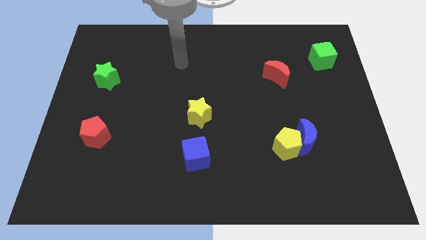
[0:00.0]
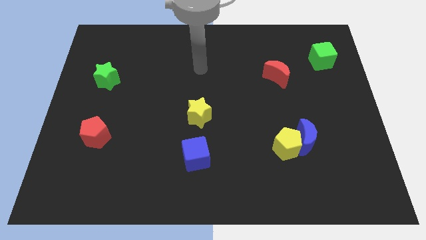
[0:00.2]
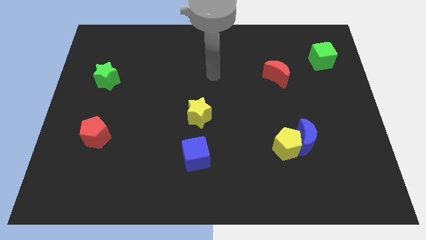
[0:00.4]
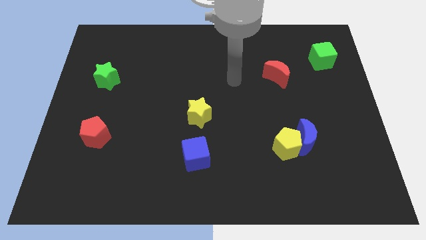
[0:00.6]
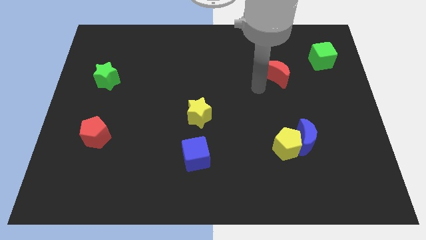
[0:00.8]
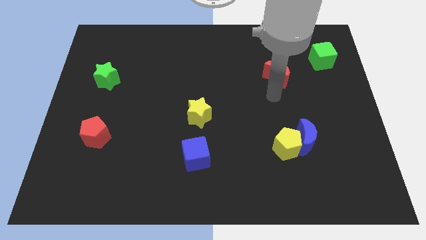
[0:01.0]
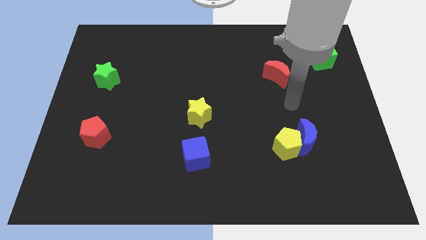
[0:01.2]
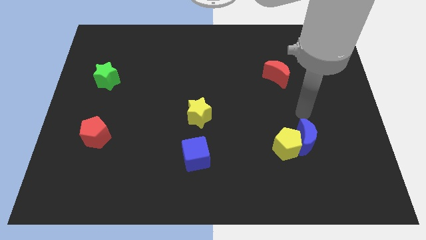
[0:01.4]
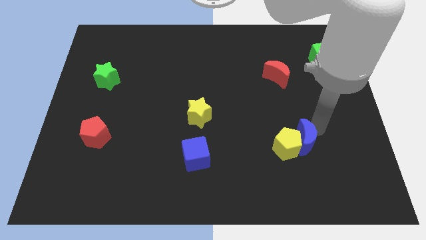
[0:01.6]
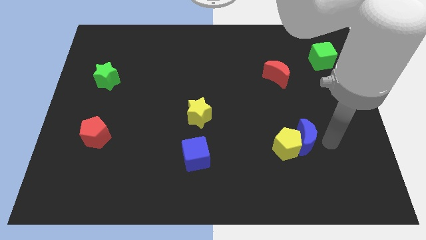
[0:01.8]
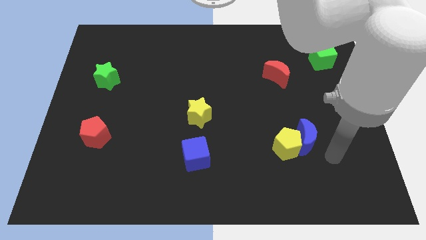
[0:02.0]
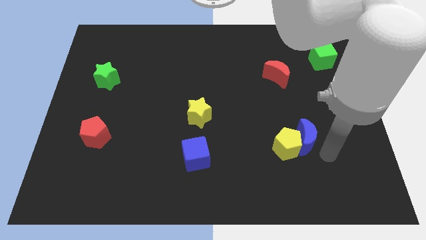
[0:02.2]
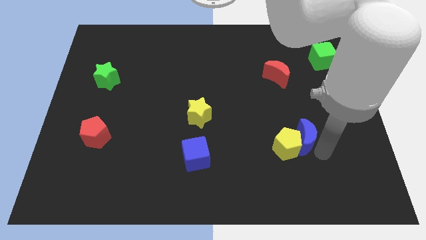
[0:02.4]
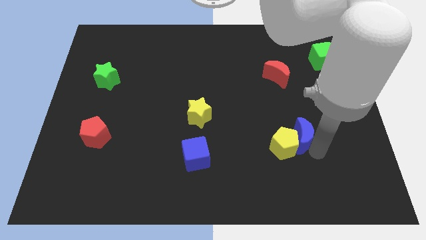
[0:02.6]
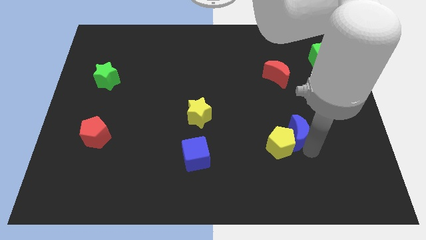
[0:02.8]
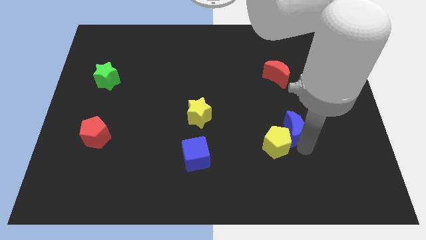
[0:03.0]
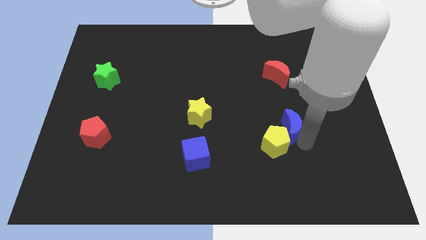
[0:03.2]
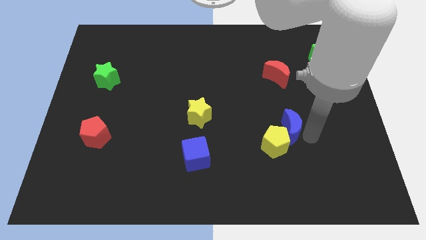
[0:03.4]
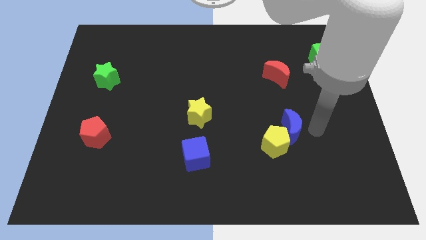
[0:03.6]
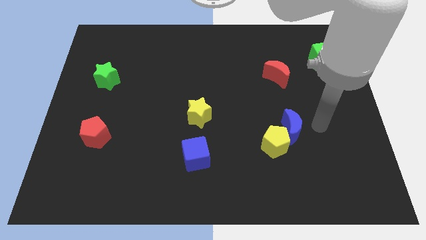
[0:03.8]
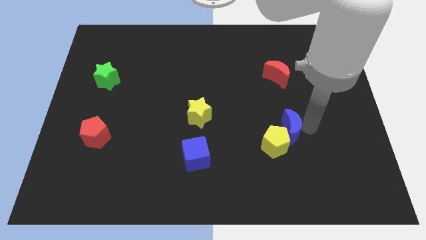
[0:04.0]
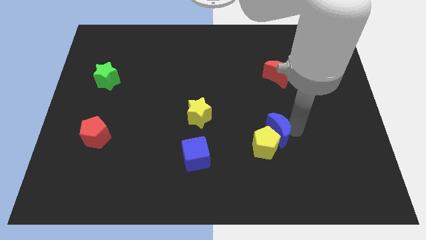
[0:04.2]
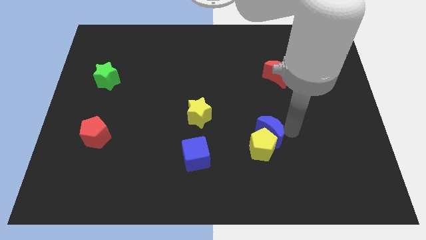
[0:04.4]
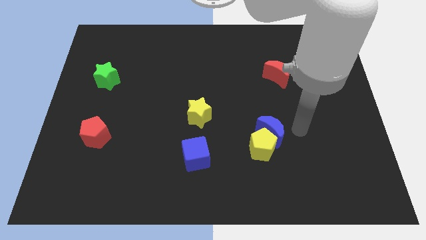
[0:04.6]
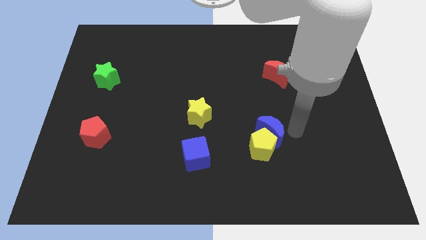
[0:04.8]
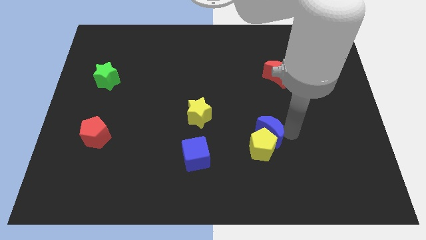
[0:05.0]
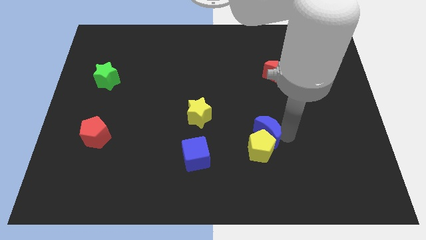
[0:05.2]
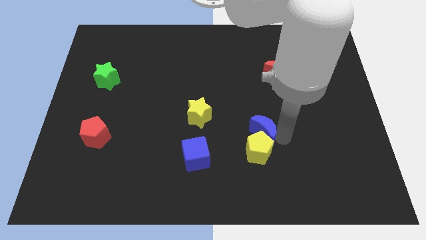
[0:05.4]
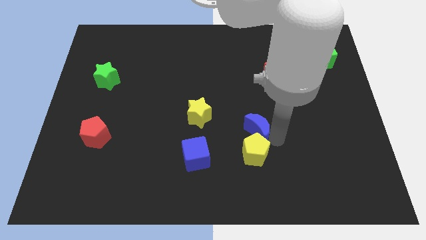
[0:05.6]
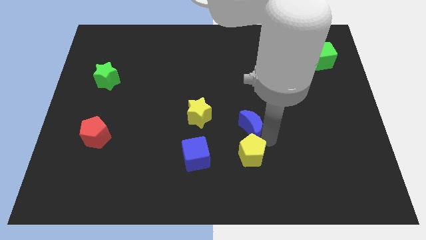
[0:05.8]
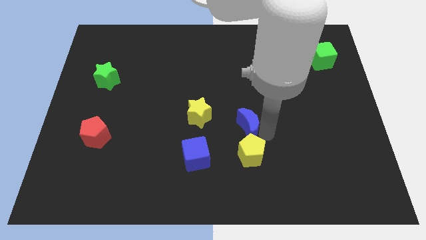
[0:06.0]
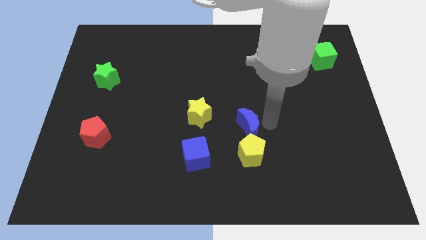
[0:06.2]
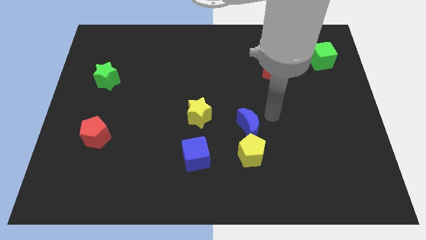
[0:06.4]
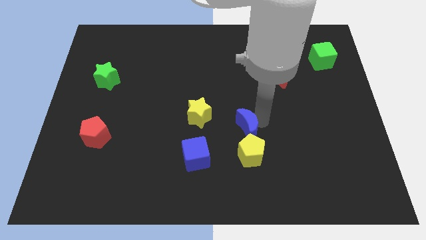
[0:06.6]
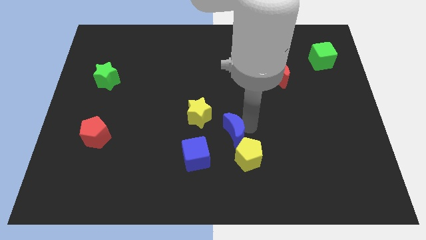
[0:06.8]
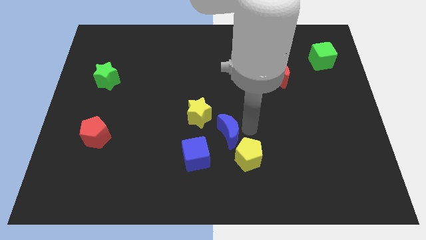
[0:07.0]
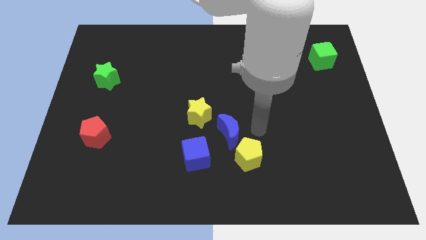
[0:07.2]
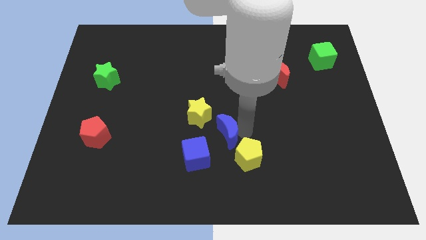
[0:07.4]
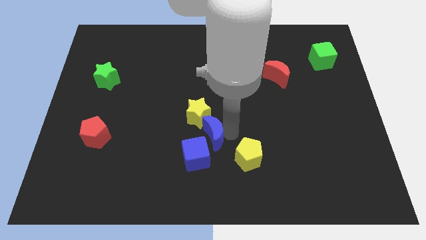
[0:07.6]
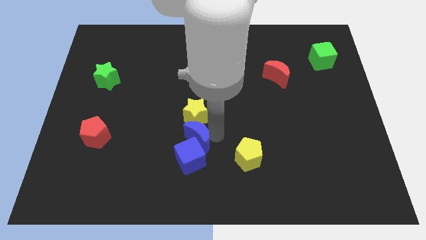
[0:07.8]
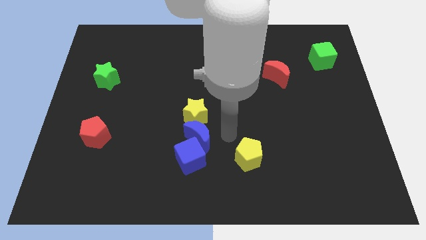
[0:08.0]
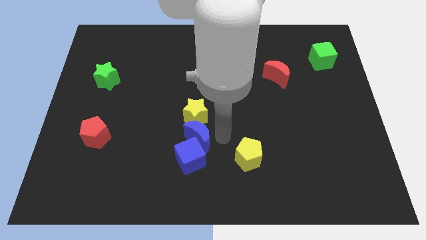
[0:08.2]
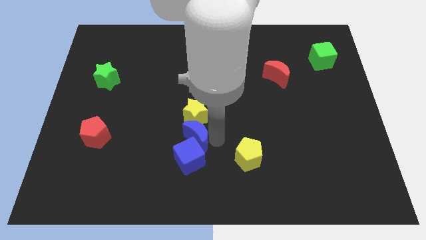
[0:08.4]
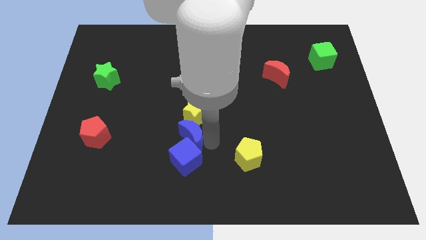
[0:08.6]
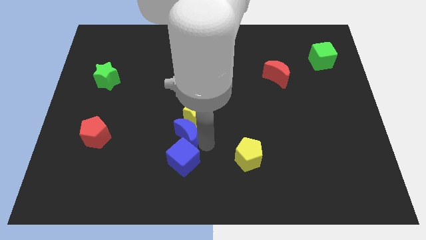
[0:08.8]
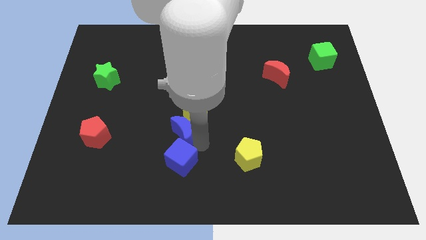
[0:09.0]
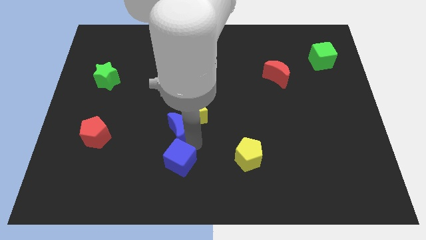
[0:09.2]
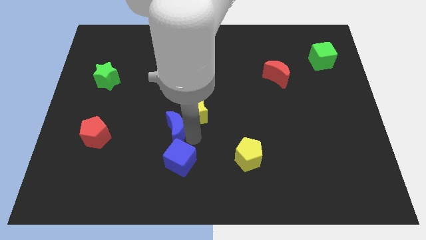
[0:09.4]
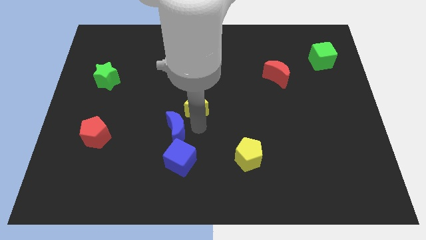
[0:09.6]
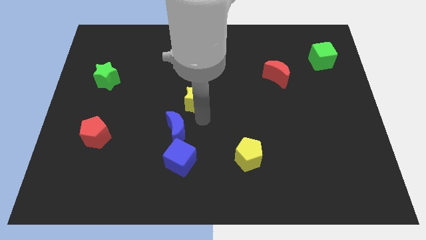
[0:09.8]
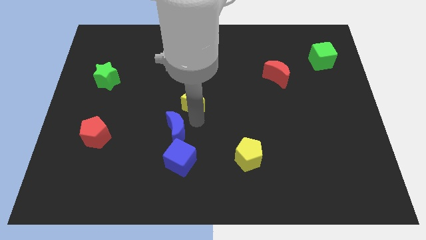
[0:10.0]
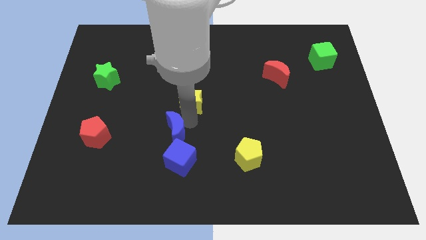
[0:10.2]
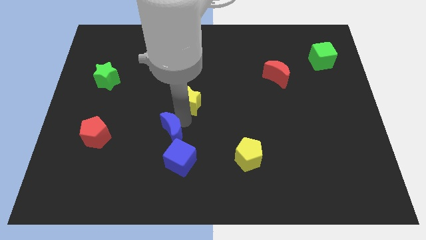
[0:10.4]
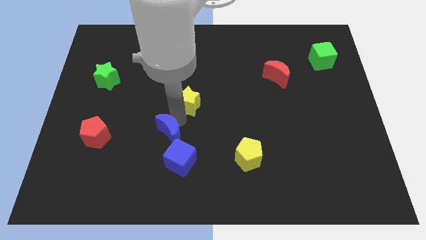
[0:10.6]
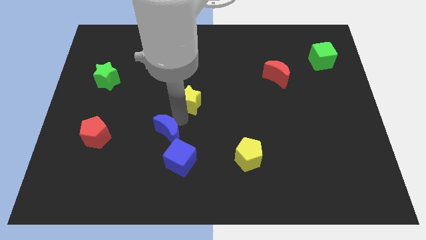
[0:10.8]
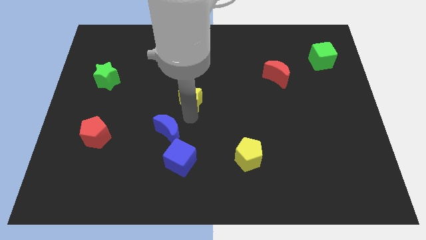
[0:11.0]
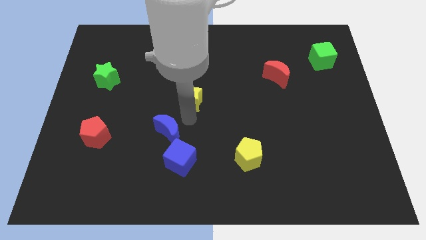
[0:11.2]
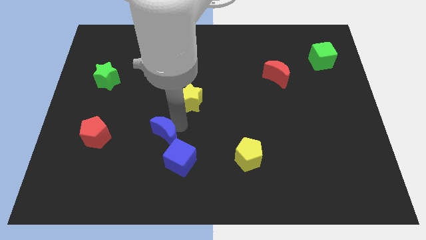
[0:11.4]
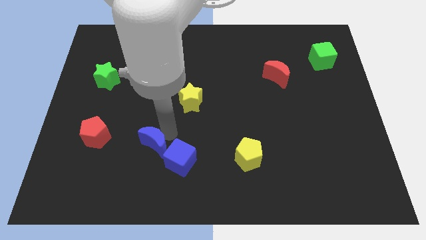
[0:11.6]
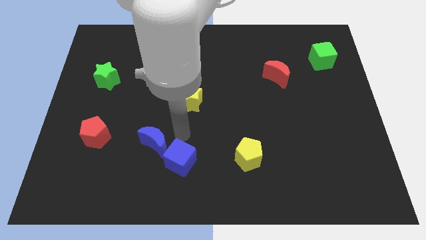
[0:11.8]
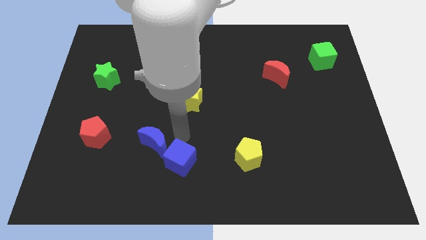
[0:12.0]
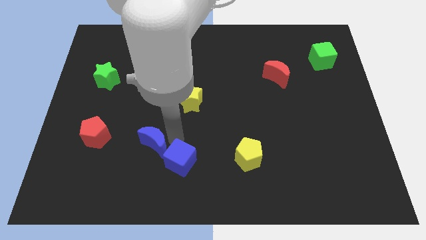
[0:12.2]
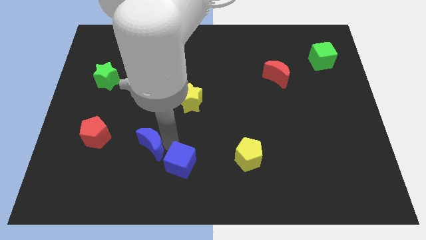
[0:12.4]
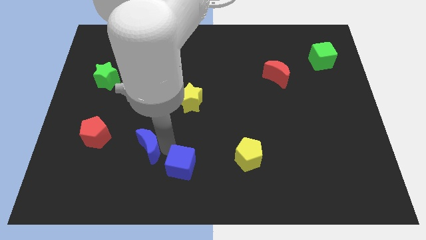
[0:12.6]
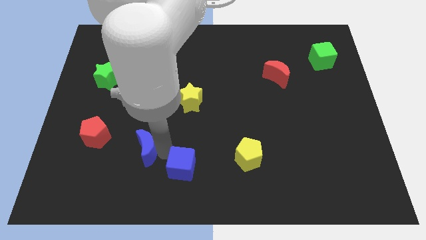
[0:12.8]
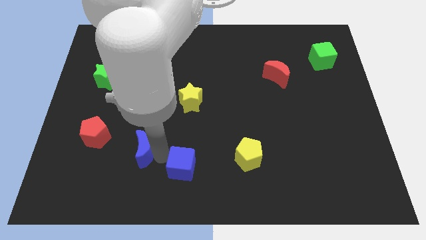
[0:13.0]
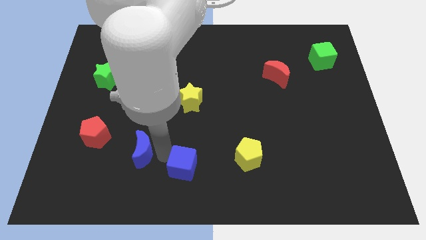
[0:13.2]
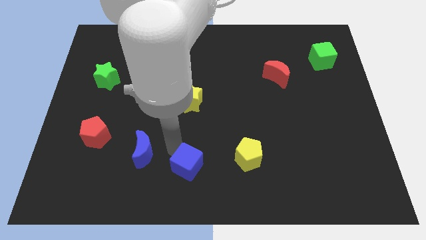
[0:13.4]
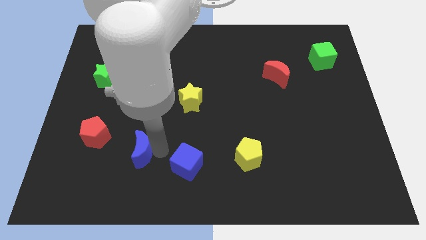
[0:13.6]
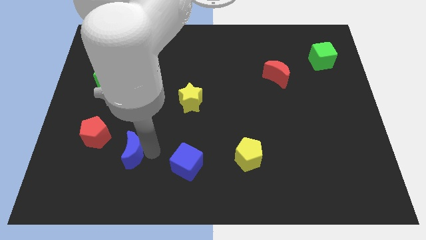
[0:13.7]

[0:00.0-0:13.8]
slide the blue moon diagonally down and to the right of the red pentagon

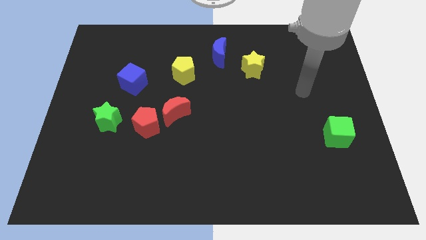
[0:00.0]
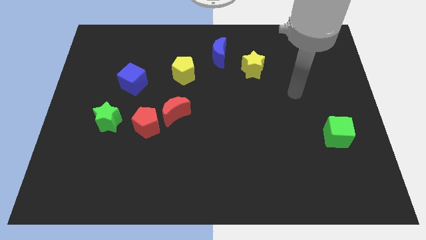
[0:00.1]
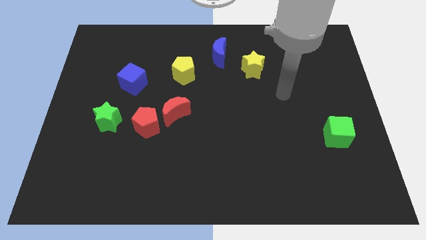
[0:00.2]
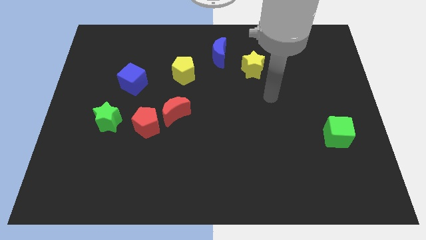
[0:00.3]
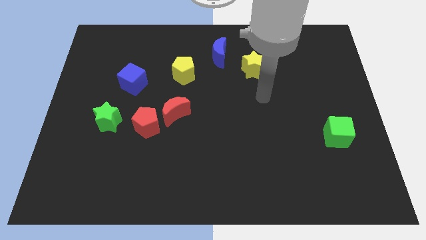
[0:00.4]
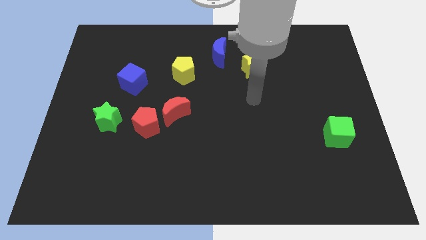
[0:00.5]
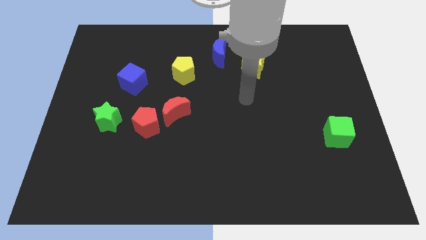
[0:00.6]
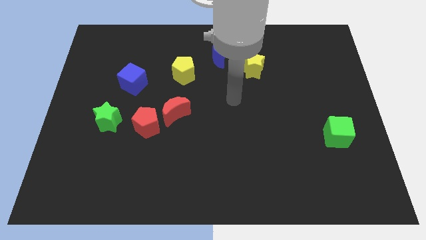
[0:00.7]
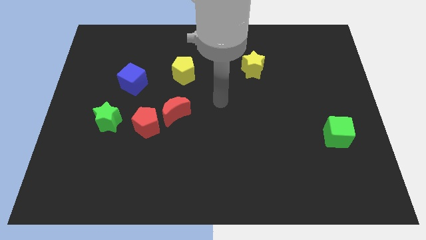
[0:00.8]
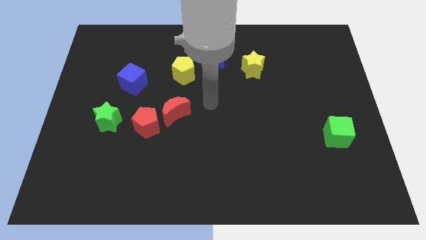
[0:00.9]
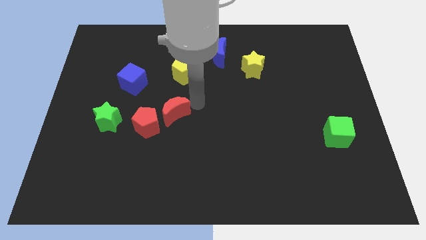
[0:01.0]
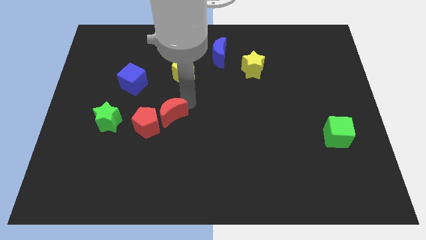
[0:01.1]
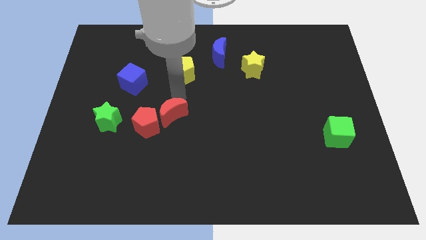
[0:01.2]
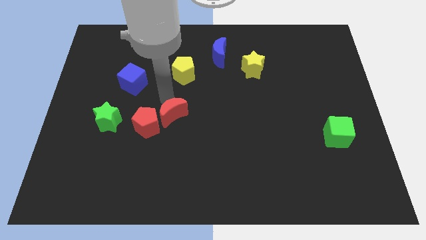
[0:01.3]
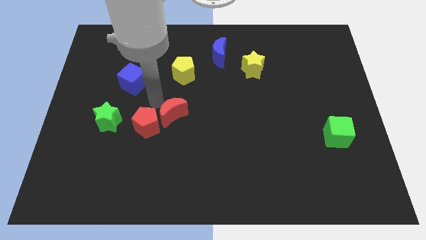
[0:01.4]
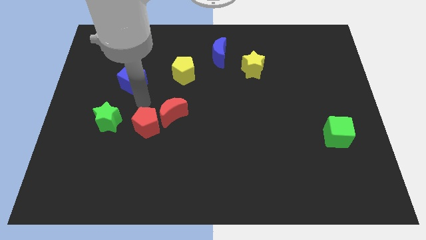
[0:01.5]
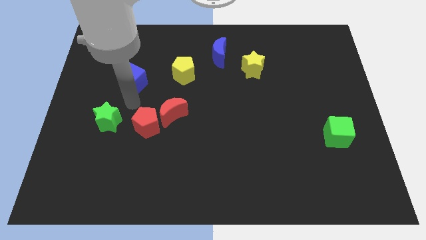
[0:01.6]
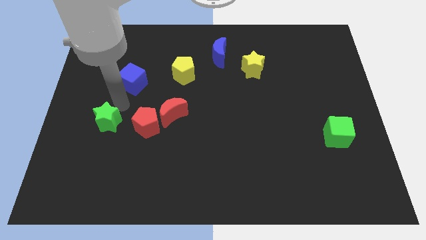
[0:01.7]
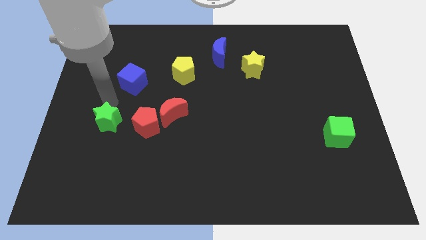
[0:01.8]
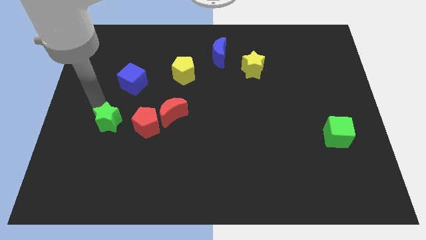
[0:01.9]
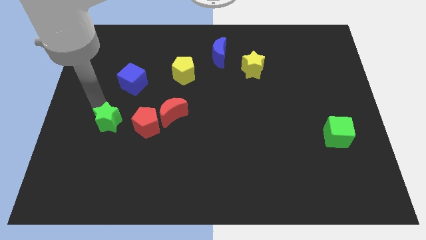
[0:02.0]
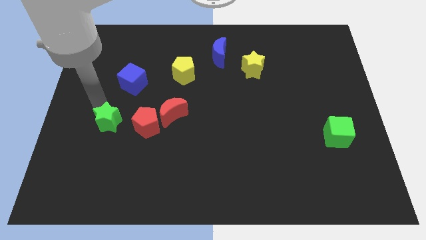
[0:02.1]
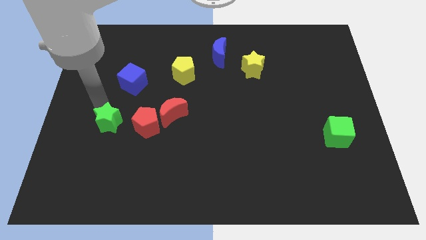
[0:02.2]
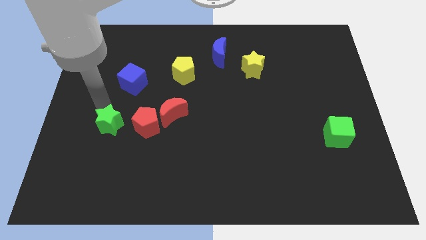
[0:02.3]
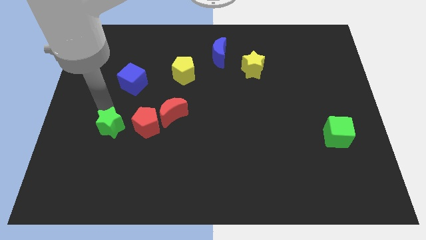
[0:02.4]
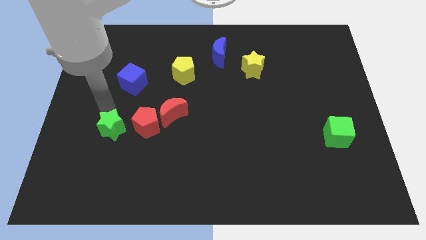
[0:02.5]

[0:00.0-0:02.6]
push the green star to the bottom left side of the red pentagon
